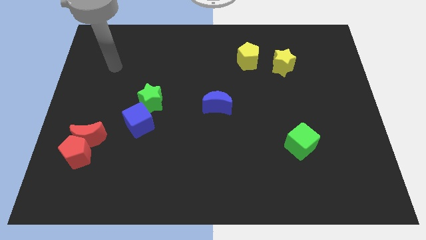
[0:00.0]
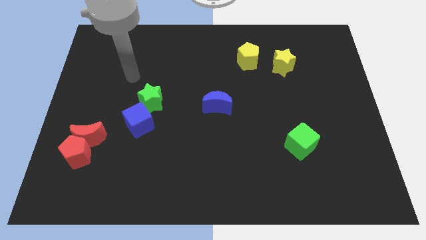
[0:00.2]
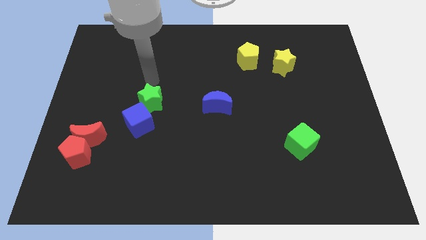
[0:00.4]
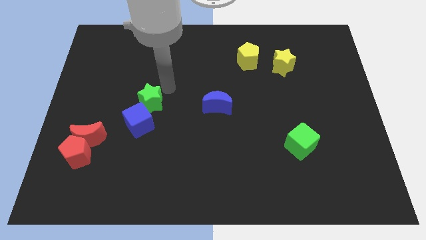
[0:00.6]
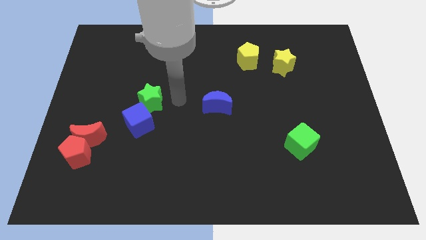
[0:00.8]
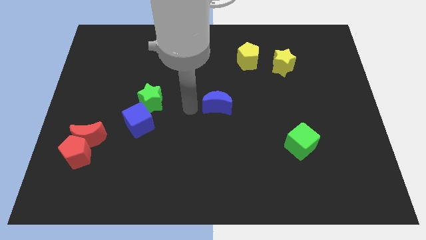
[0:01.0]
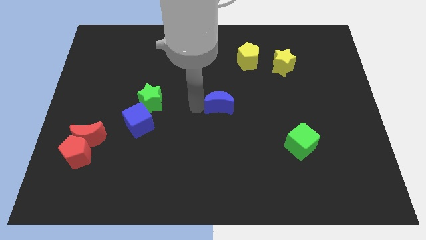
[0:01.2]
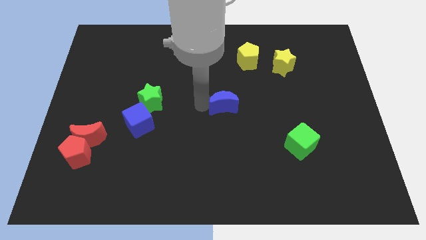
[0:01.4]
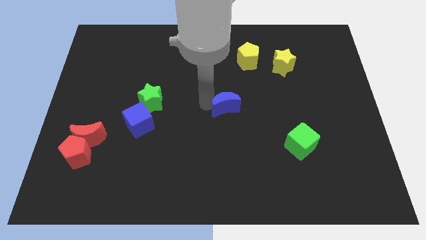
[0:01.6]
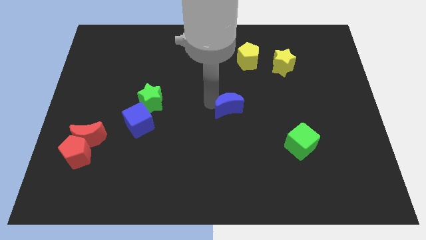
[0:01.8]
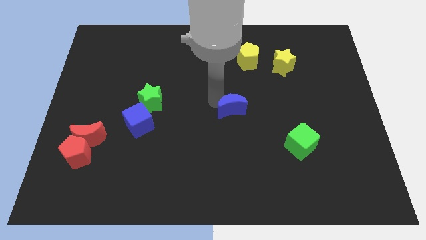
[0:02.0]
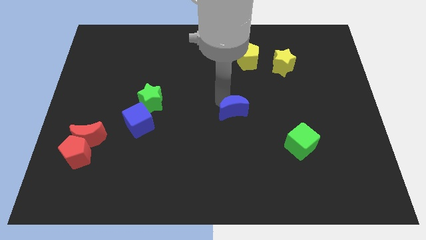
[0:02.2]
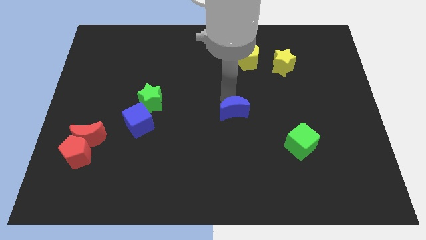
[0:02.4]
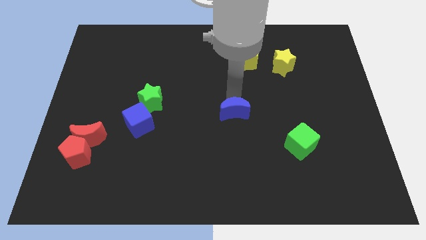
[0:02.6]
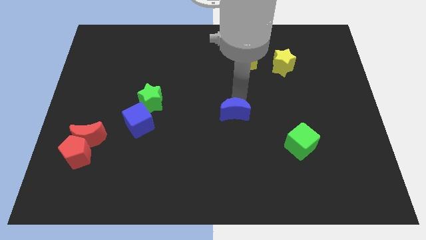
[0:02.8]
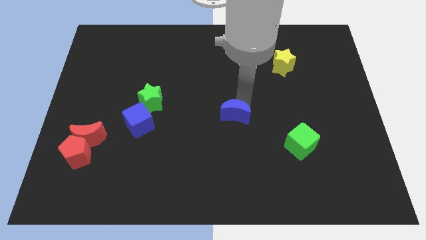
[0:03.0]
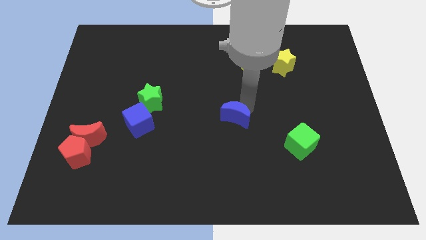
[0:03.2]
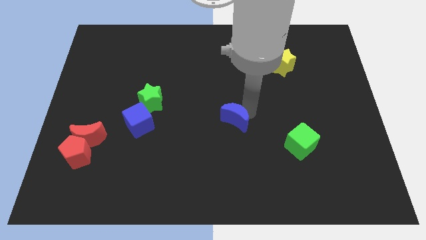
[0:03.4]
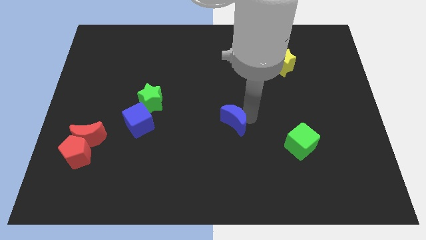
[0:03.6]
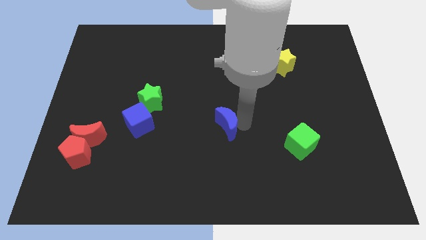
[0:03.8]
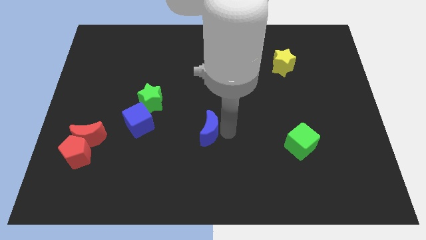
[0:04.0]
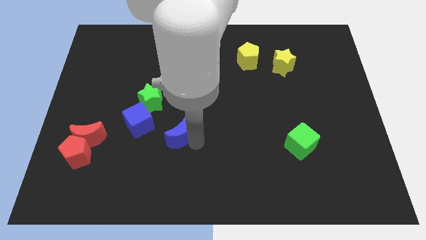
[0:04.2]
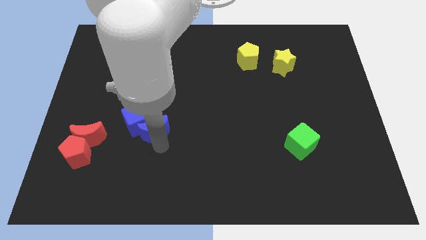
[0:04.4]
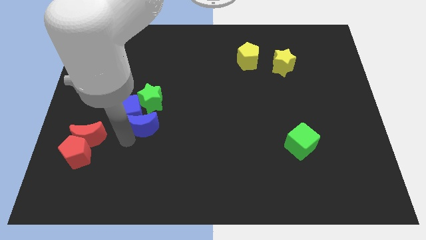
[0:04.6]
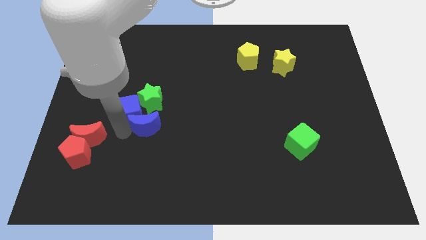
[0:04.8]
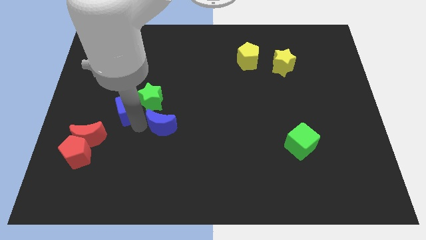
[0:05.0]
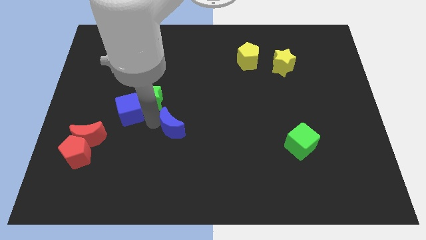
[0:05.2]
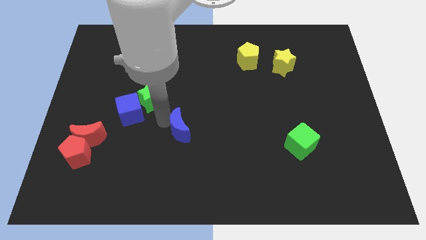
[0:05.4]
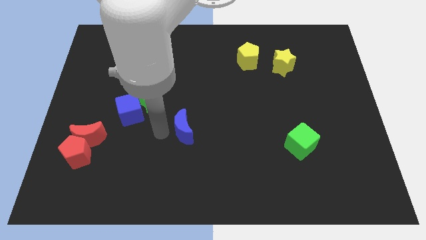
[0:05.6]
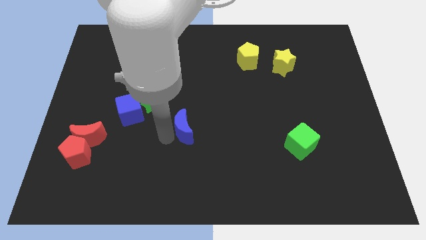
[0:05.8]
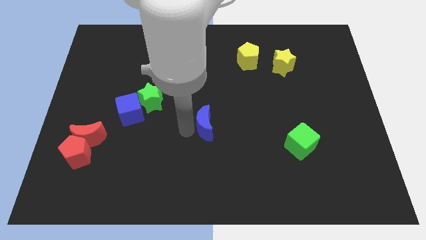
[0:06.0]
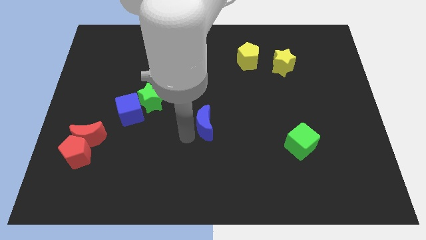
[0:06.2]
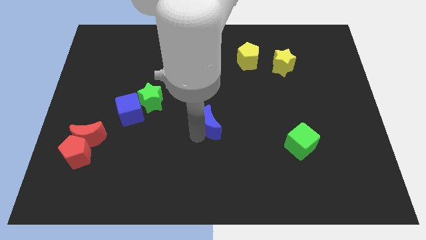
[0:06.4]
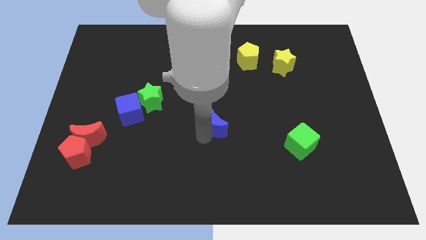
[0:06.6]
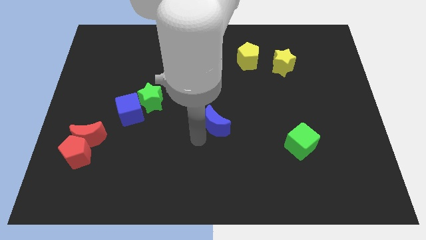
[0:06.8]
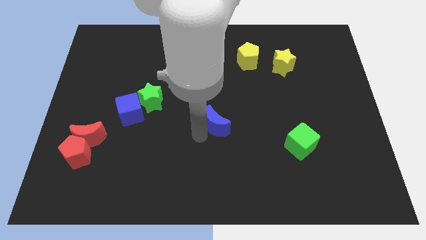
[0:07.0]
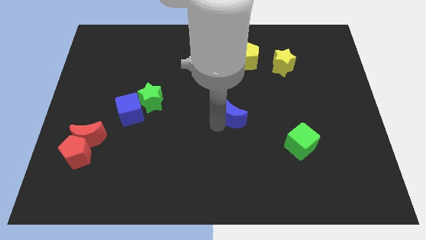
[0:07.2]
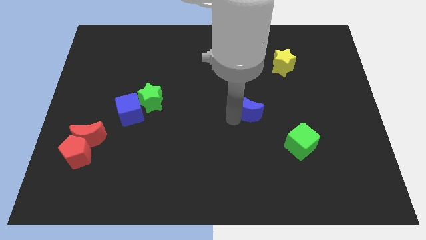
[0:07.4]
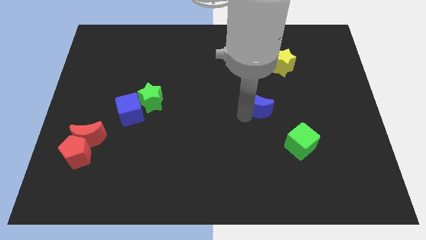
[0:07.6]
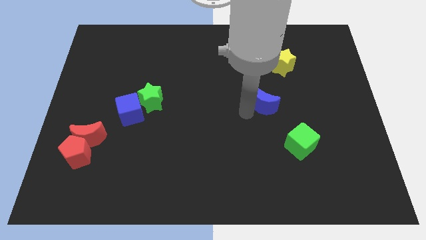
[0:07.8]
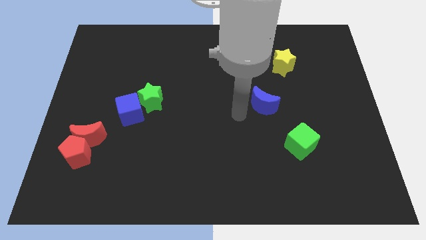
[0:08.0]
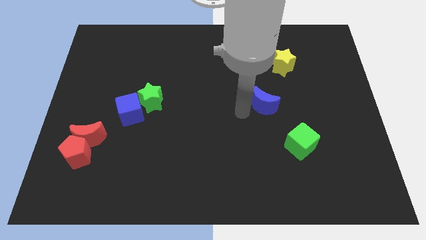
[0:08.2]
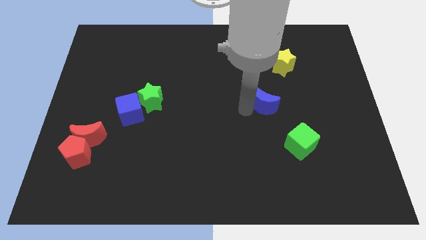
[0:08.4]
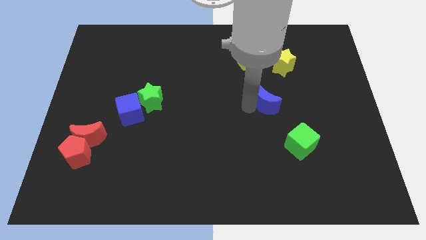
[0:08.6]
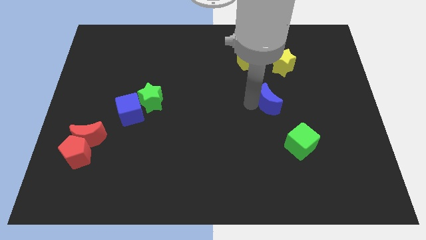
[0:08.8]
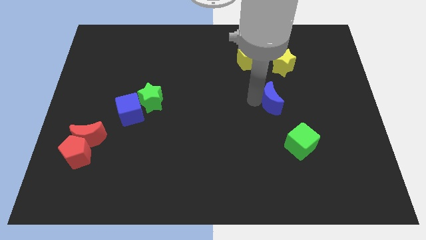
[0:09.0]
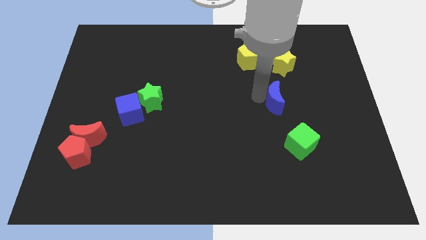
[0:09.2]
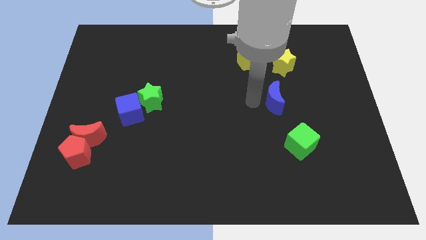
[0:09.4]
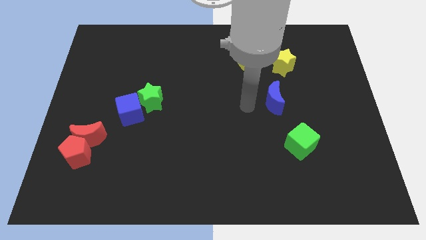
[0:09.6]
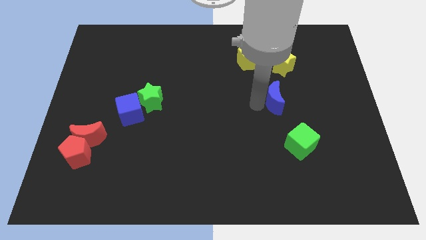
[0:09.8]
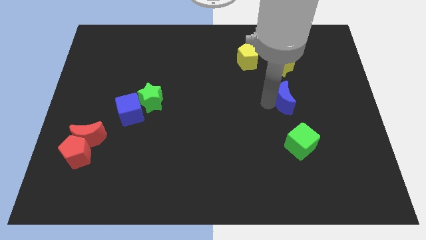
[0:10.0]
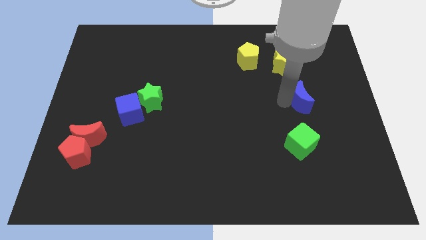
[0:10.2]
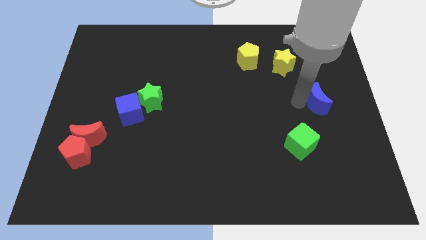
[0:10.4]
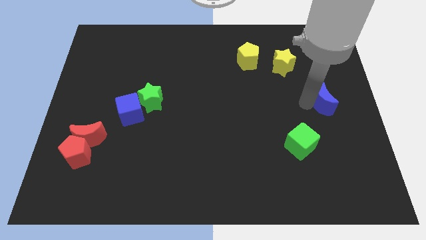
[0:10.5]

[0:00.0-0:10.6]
push the blue moon to the right side

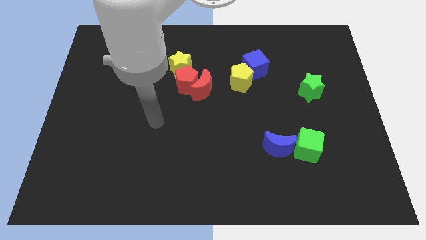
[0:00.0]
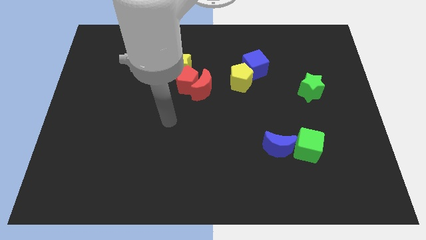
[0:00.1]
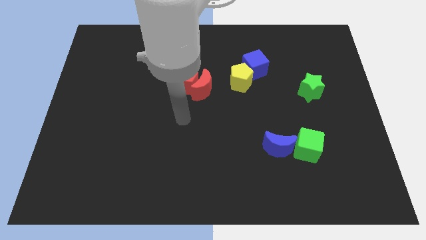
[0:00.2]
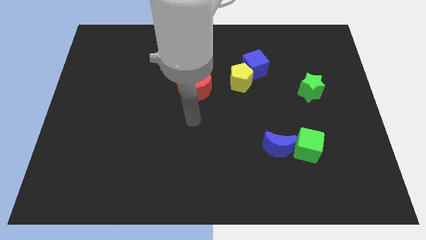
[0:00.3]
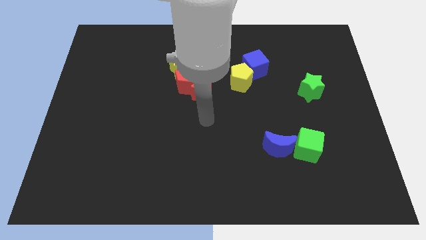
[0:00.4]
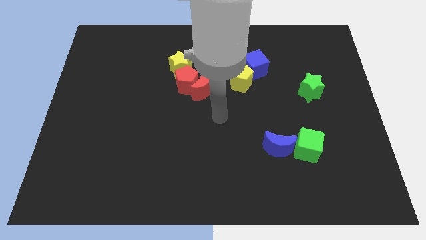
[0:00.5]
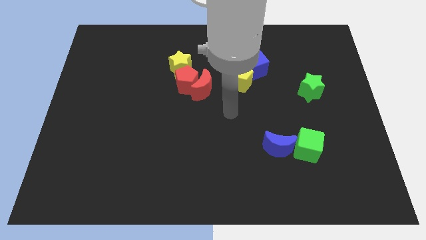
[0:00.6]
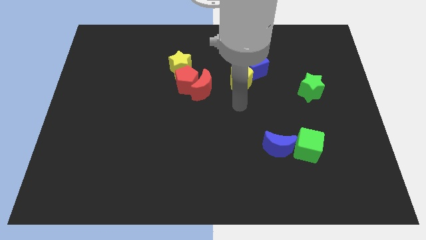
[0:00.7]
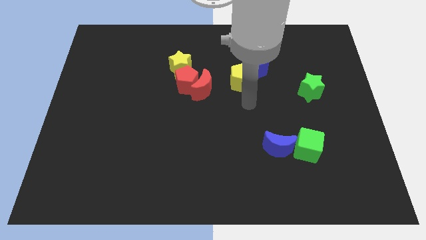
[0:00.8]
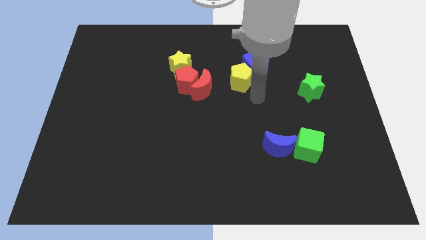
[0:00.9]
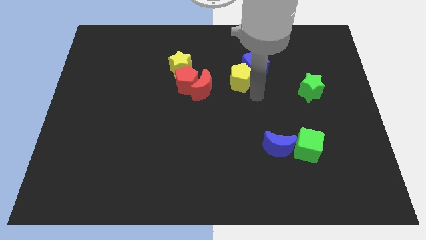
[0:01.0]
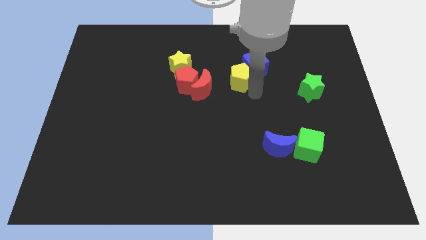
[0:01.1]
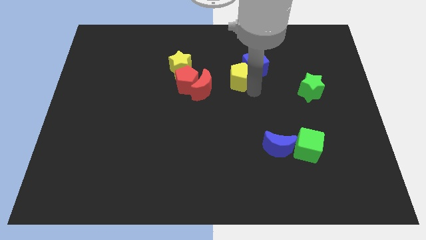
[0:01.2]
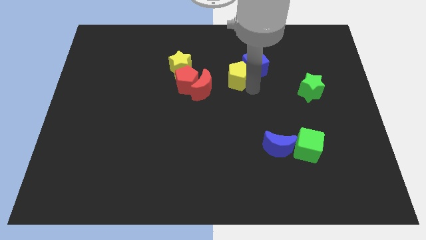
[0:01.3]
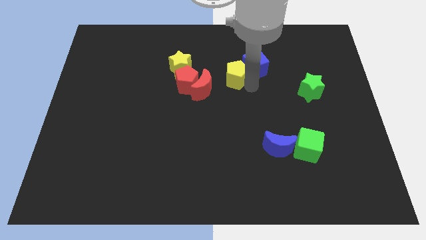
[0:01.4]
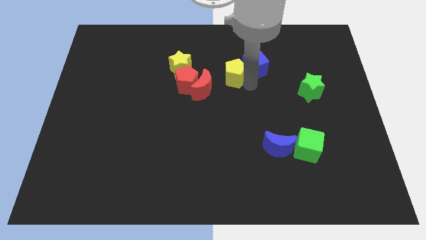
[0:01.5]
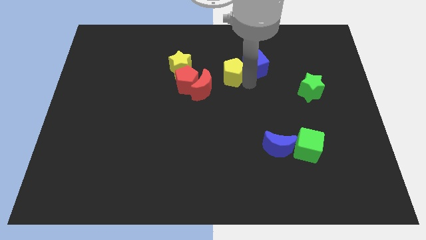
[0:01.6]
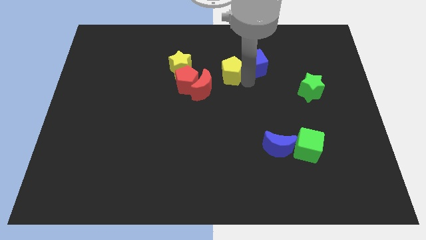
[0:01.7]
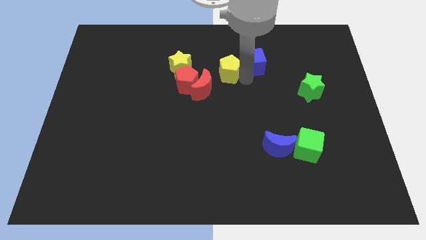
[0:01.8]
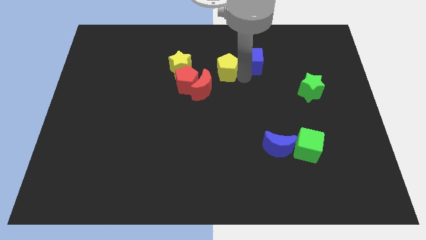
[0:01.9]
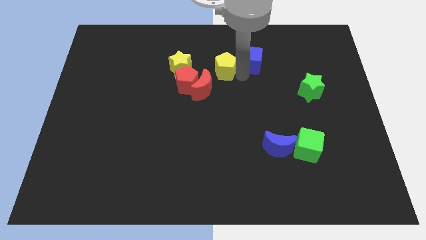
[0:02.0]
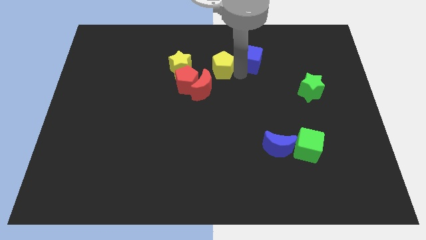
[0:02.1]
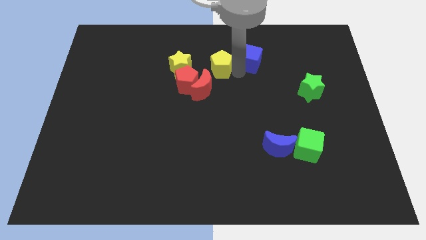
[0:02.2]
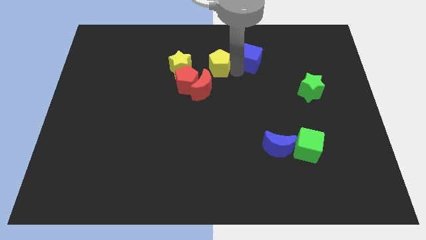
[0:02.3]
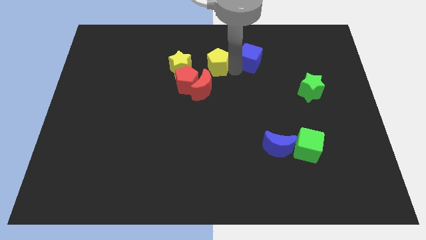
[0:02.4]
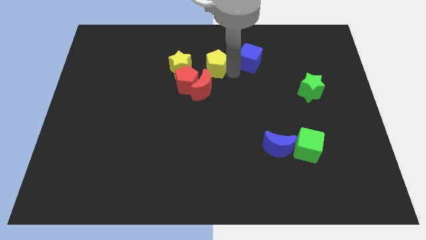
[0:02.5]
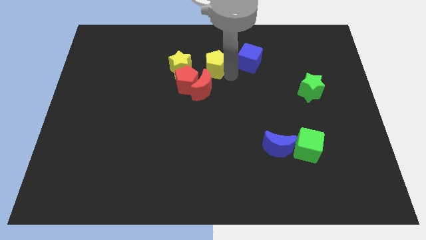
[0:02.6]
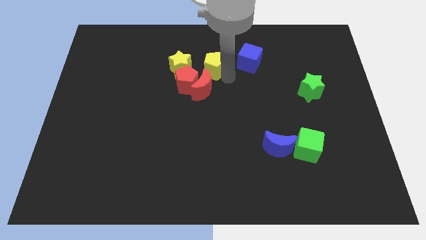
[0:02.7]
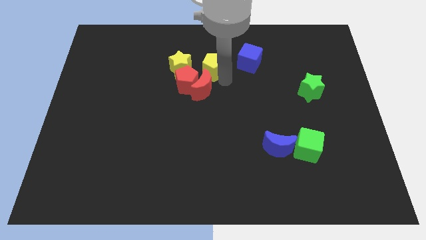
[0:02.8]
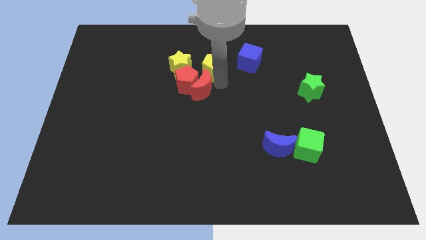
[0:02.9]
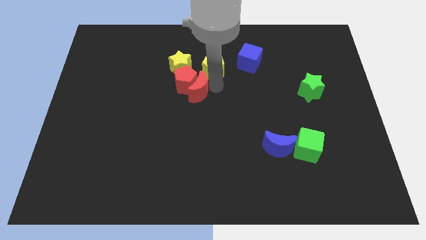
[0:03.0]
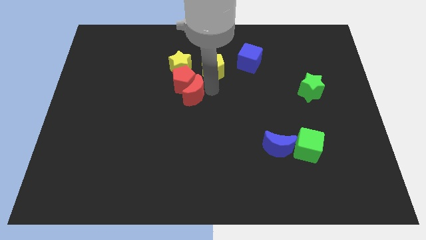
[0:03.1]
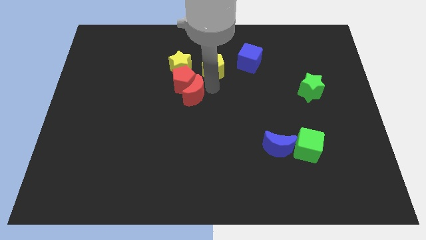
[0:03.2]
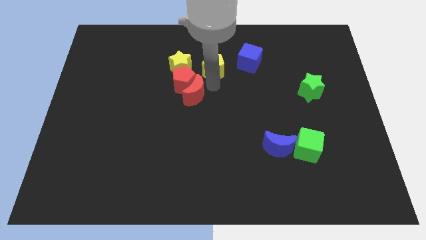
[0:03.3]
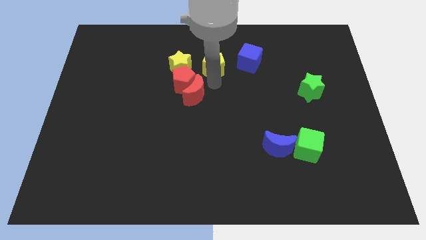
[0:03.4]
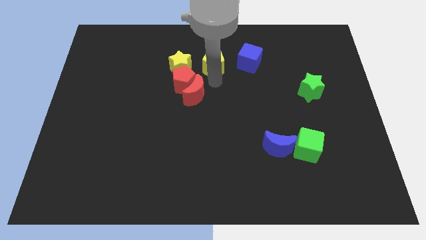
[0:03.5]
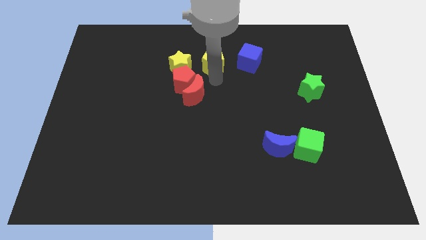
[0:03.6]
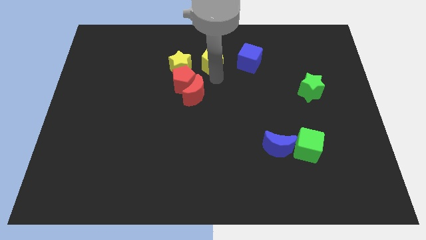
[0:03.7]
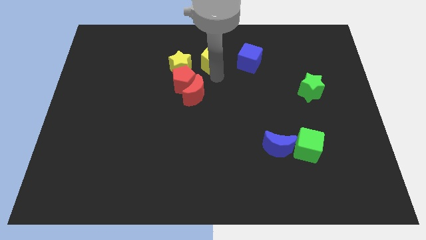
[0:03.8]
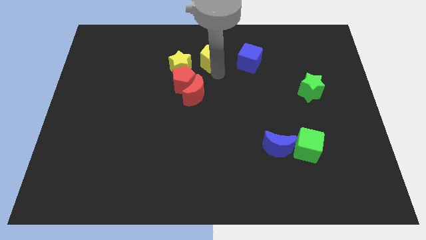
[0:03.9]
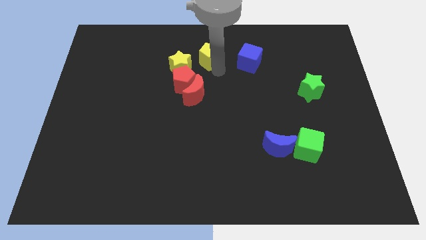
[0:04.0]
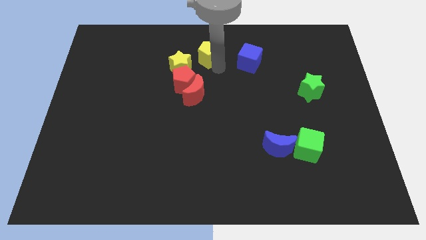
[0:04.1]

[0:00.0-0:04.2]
put the yellow pentagon to the towards your base
